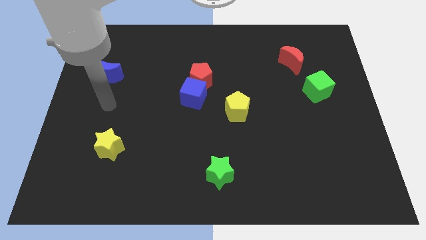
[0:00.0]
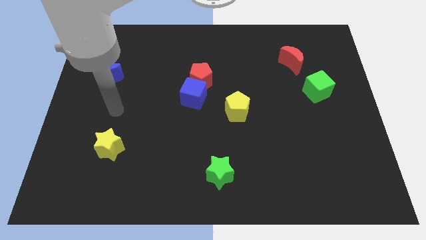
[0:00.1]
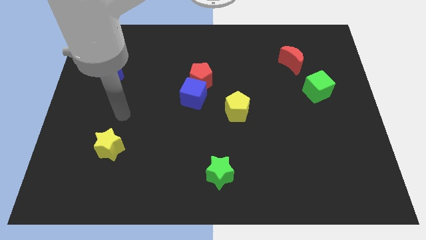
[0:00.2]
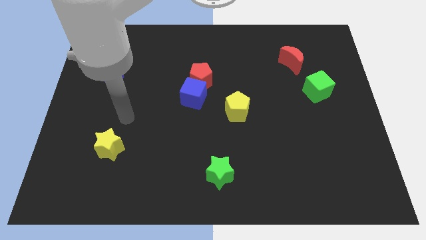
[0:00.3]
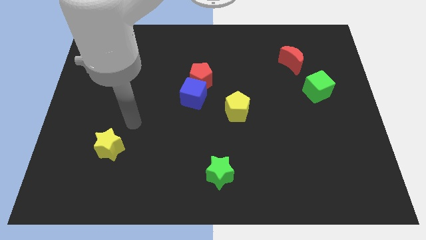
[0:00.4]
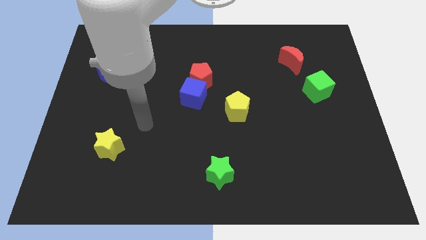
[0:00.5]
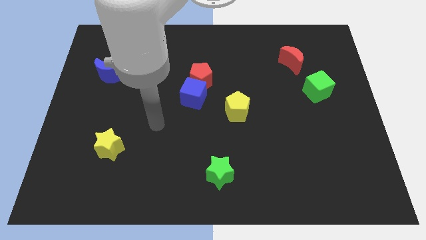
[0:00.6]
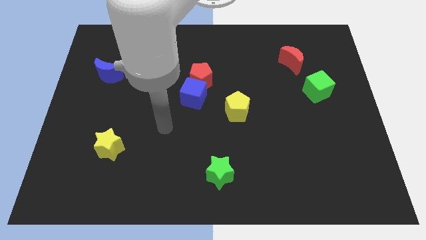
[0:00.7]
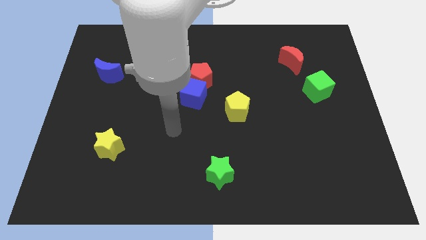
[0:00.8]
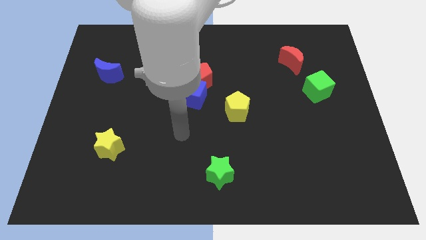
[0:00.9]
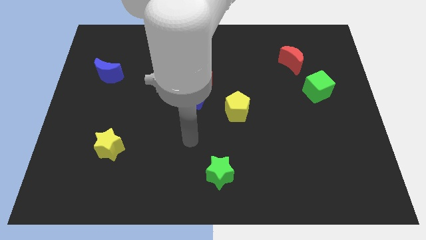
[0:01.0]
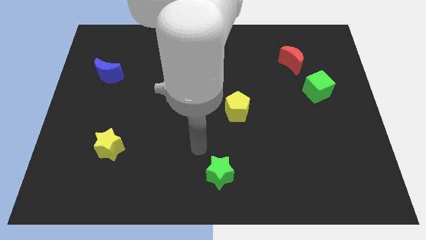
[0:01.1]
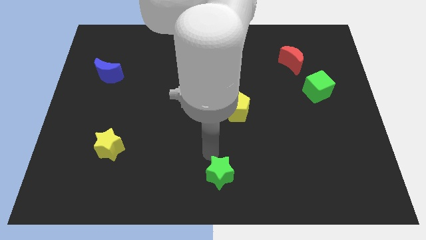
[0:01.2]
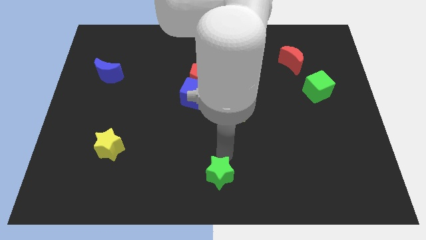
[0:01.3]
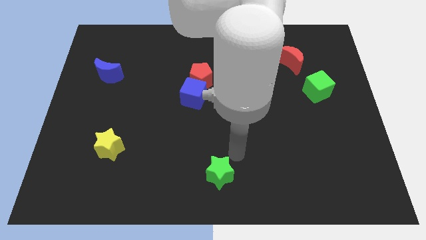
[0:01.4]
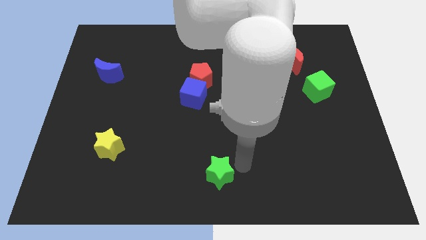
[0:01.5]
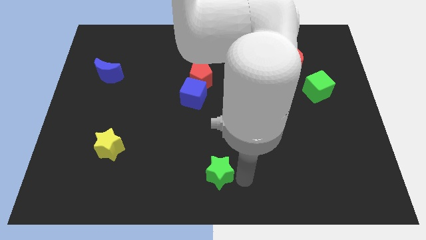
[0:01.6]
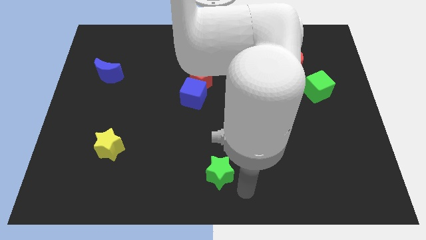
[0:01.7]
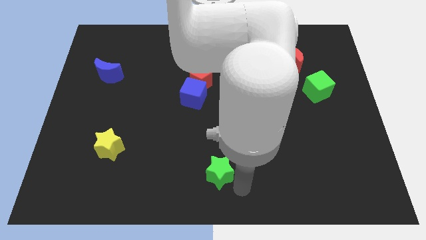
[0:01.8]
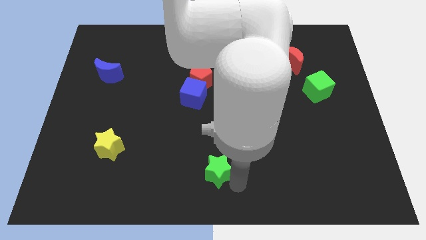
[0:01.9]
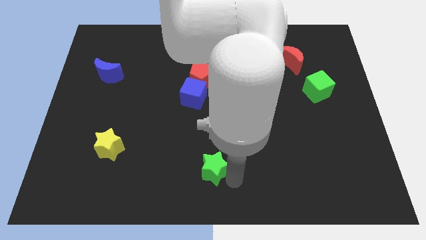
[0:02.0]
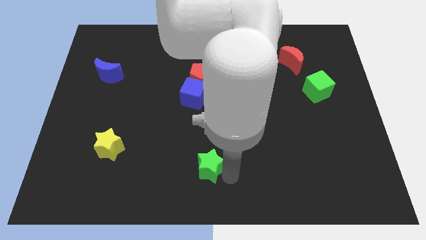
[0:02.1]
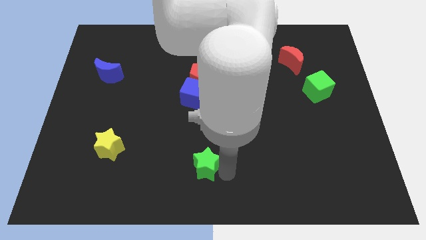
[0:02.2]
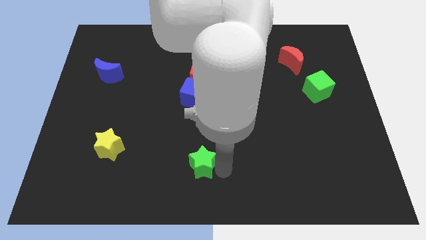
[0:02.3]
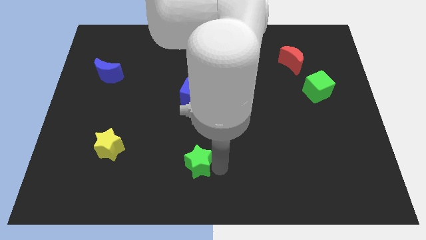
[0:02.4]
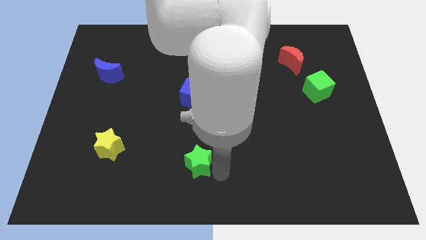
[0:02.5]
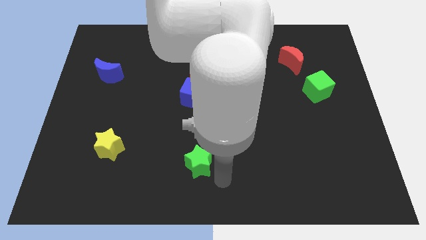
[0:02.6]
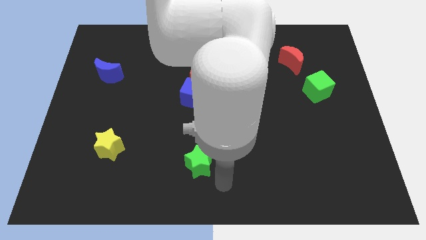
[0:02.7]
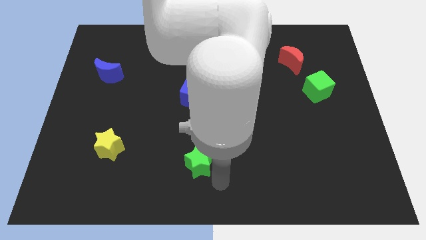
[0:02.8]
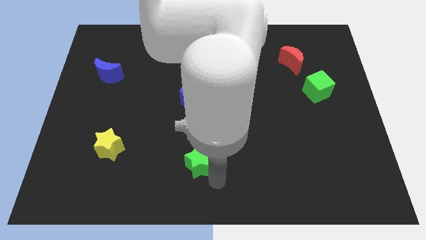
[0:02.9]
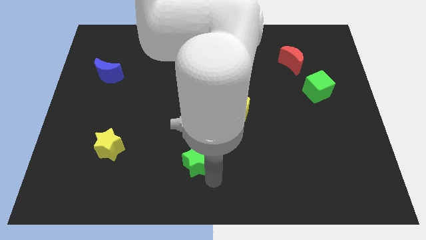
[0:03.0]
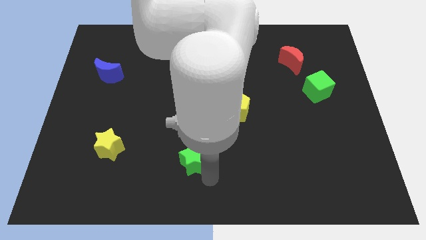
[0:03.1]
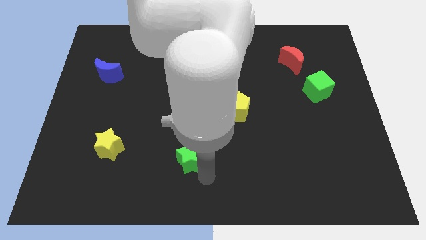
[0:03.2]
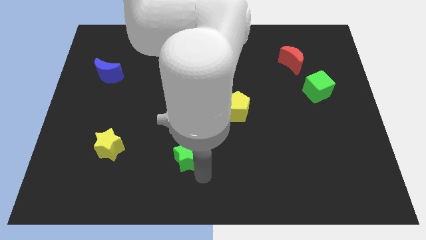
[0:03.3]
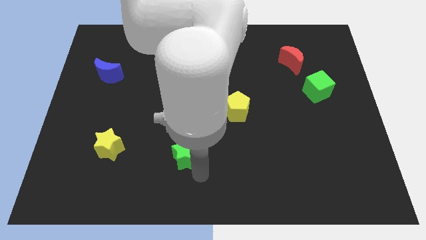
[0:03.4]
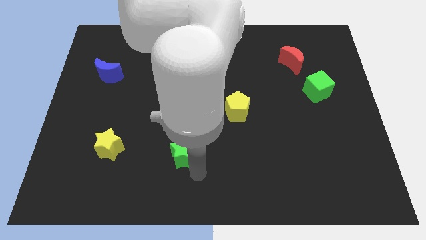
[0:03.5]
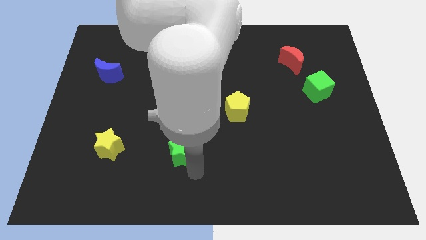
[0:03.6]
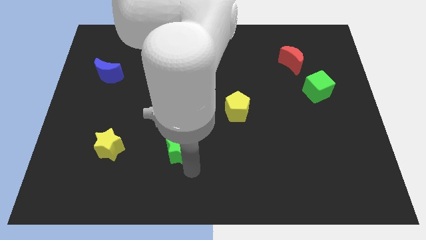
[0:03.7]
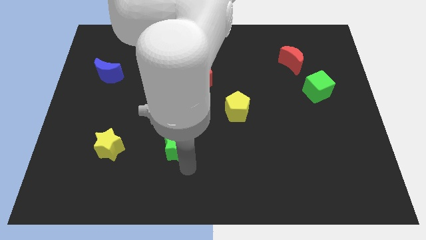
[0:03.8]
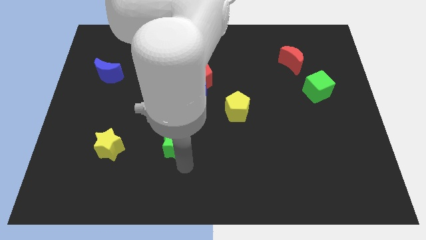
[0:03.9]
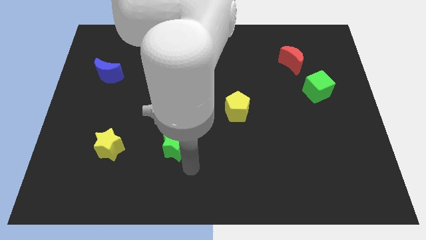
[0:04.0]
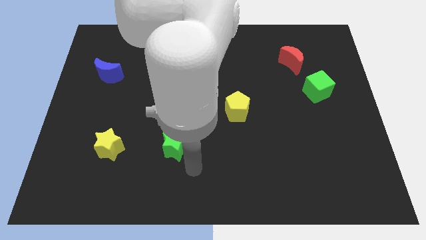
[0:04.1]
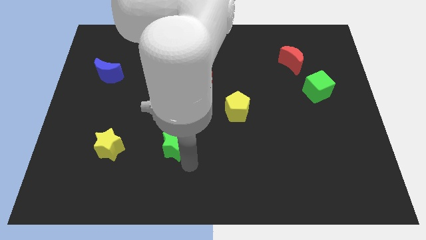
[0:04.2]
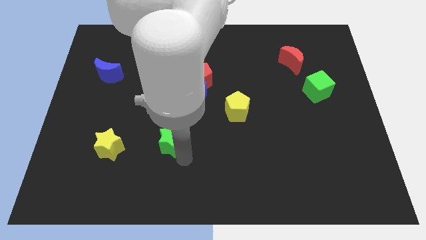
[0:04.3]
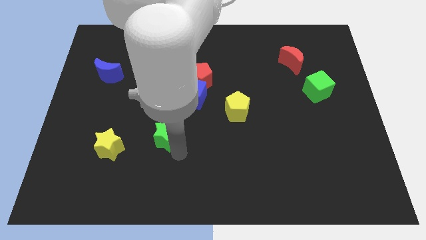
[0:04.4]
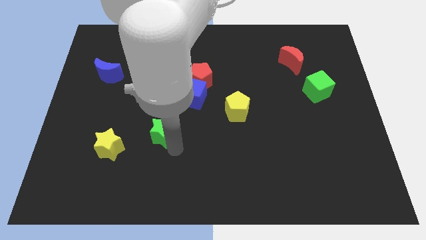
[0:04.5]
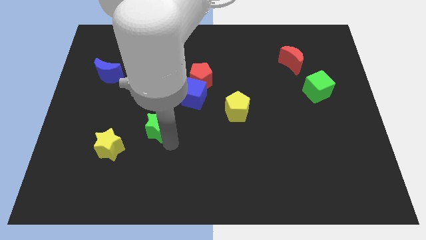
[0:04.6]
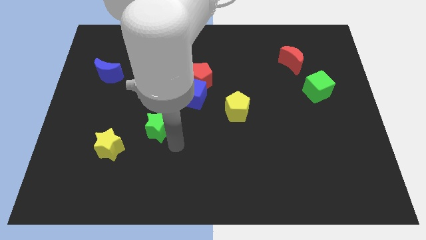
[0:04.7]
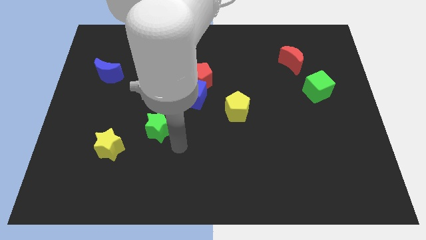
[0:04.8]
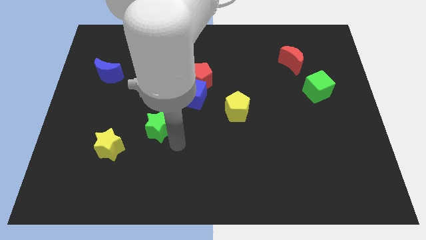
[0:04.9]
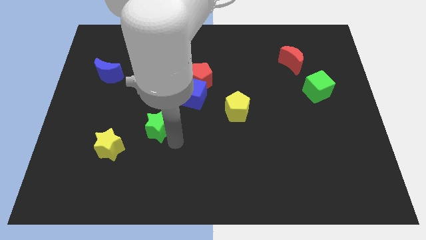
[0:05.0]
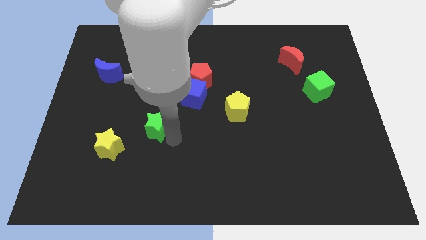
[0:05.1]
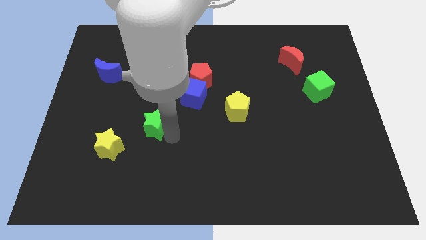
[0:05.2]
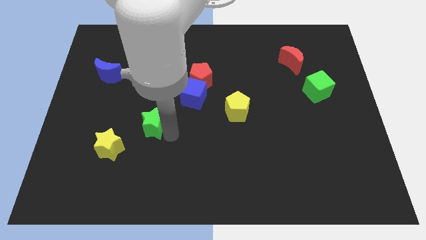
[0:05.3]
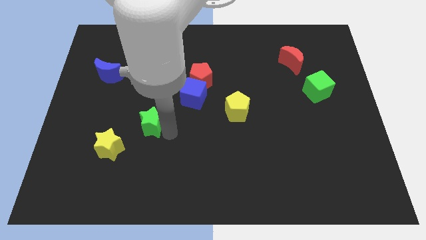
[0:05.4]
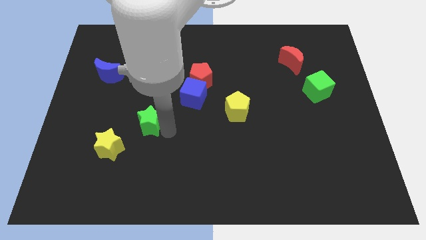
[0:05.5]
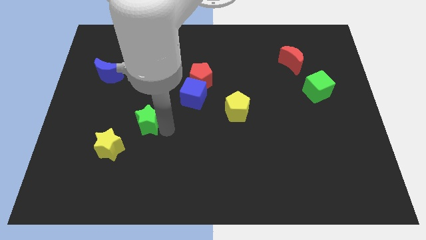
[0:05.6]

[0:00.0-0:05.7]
slide the green star diagonally upwards and to the left

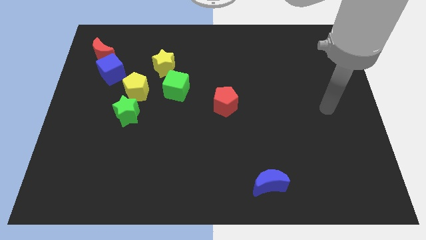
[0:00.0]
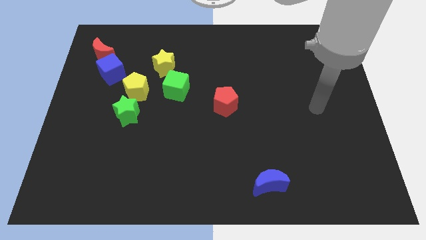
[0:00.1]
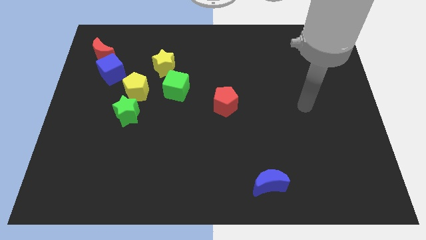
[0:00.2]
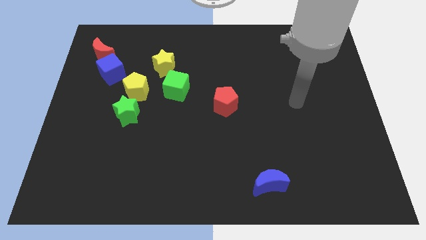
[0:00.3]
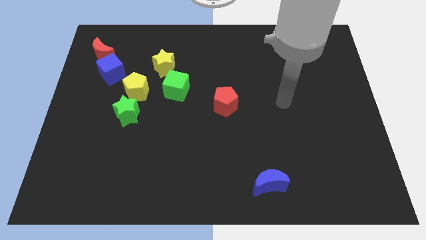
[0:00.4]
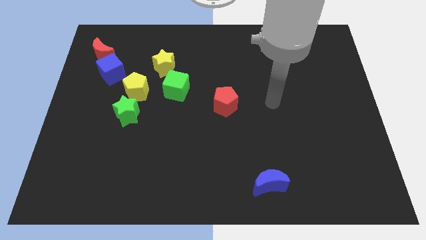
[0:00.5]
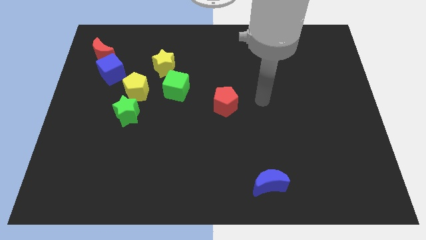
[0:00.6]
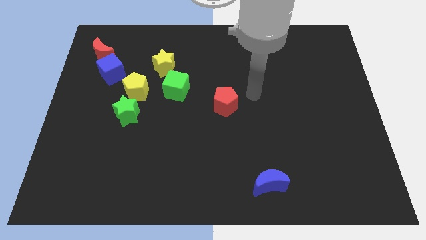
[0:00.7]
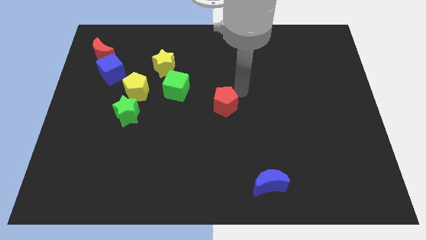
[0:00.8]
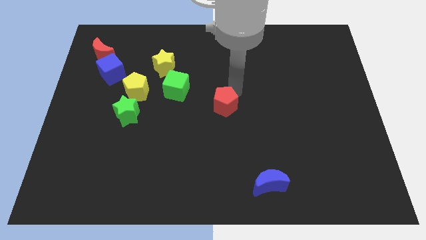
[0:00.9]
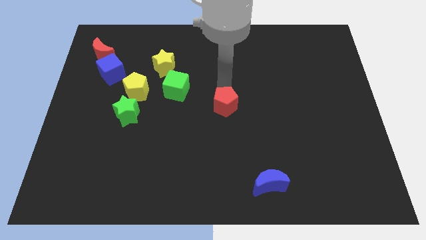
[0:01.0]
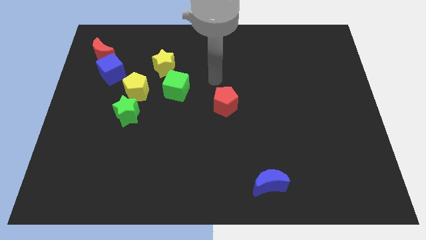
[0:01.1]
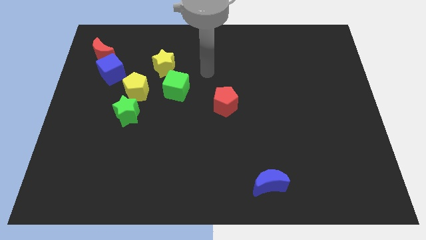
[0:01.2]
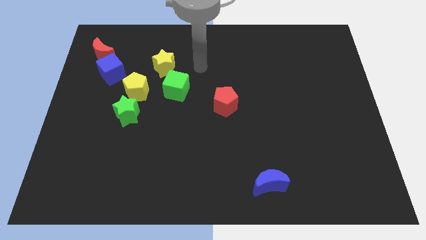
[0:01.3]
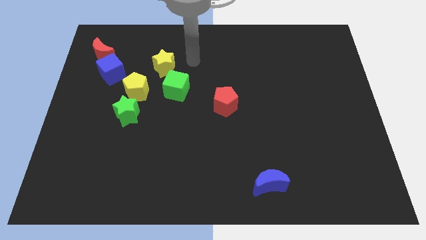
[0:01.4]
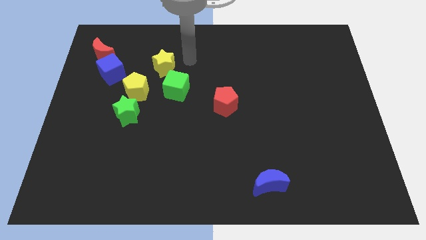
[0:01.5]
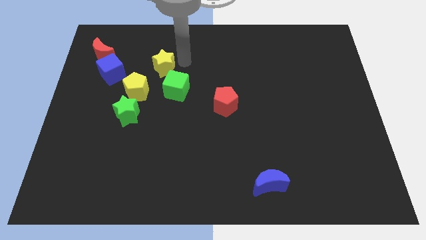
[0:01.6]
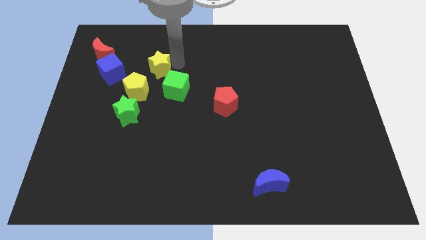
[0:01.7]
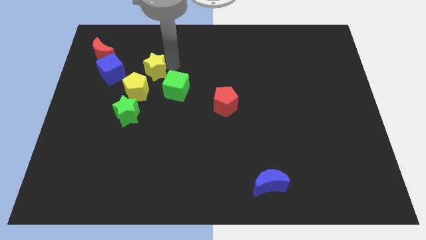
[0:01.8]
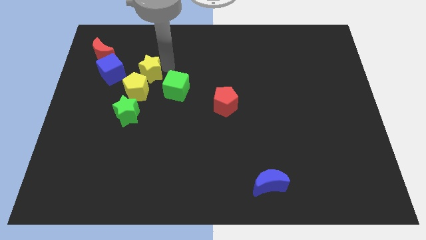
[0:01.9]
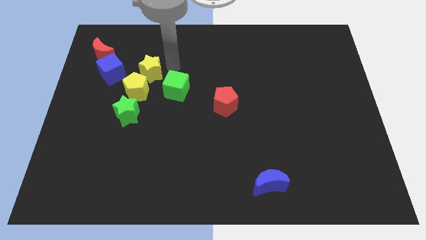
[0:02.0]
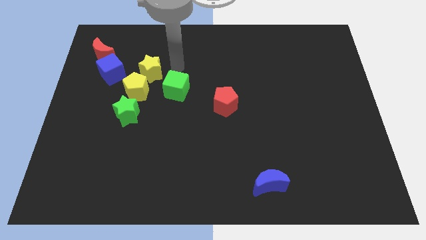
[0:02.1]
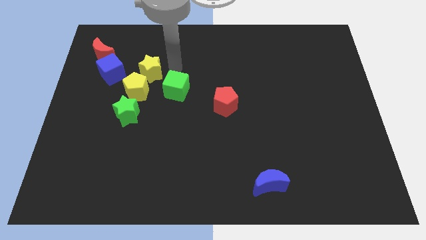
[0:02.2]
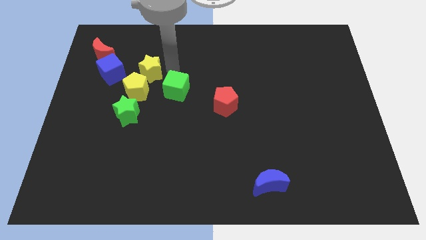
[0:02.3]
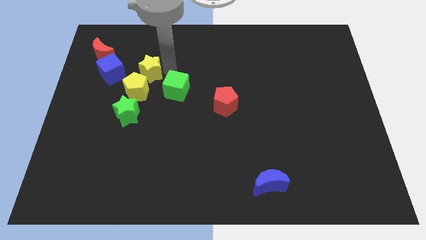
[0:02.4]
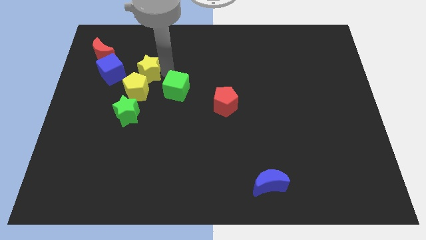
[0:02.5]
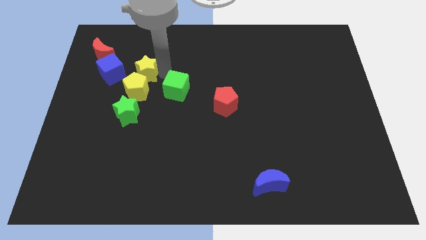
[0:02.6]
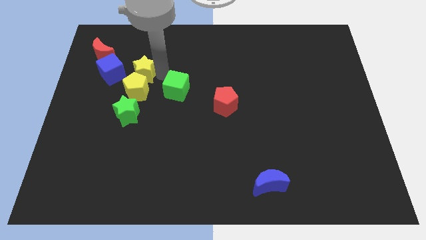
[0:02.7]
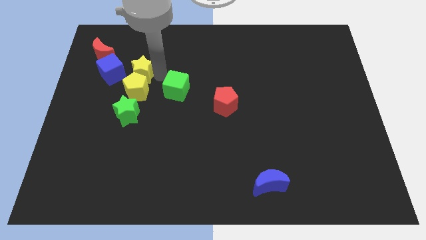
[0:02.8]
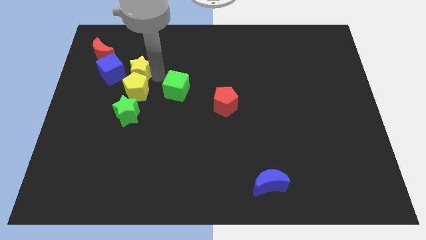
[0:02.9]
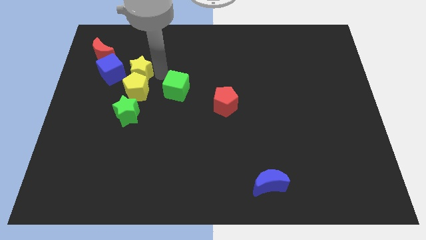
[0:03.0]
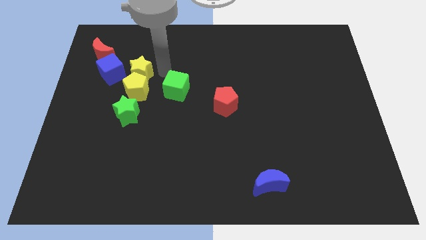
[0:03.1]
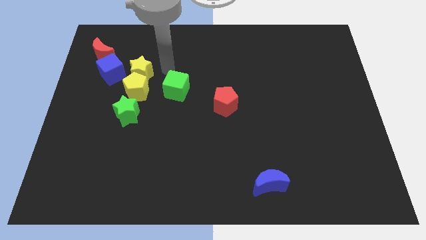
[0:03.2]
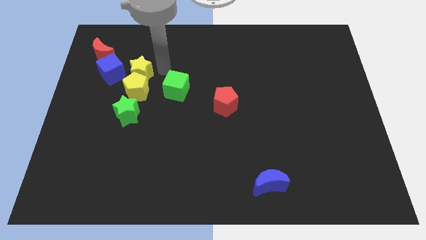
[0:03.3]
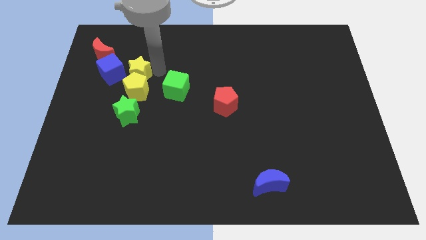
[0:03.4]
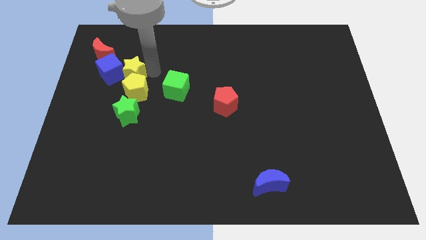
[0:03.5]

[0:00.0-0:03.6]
move the yellow star down and left a little
